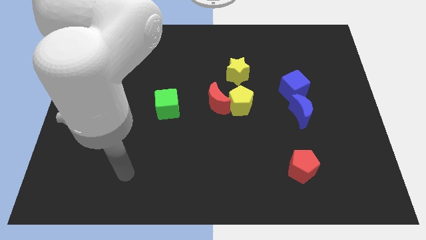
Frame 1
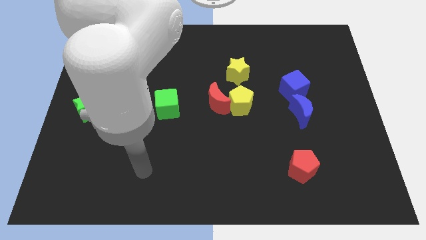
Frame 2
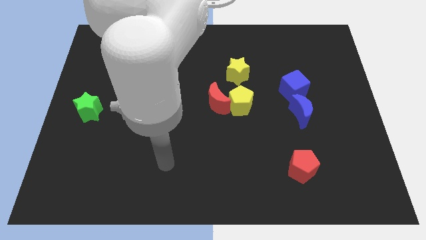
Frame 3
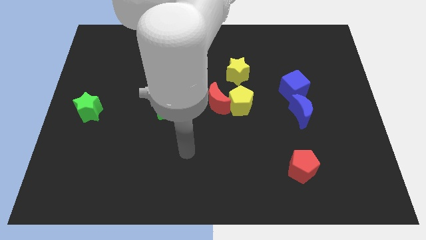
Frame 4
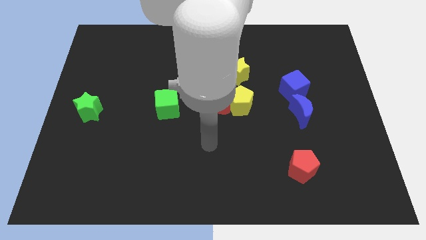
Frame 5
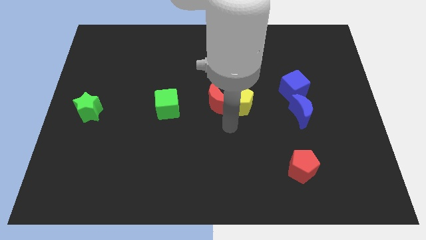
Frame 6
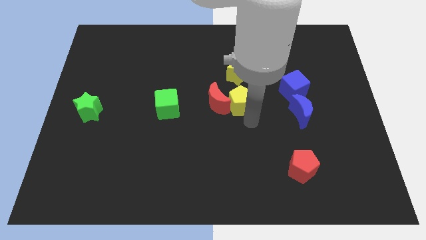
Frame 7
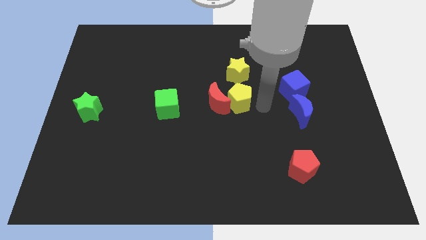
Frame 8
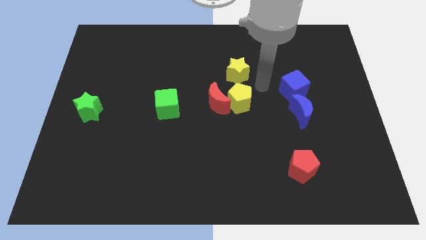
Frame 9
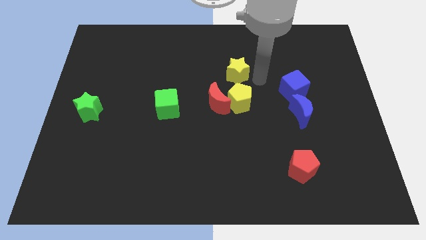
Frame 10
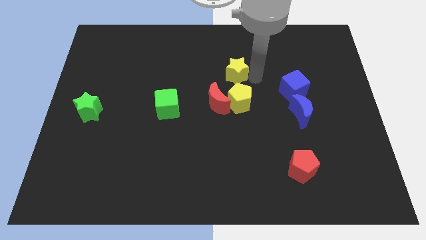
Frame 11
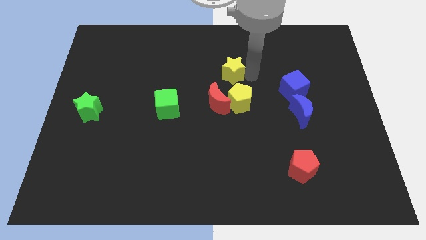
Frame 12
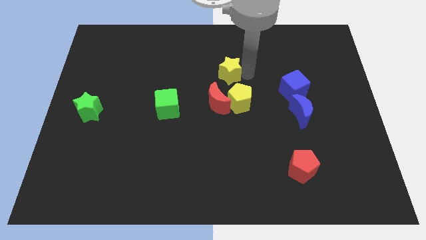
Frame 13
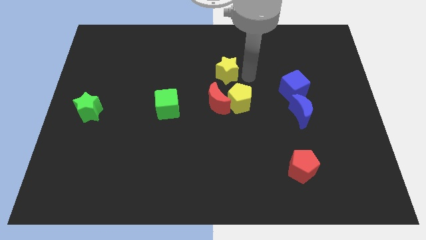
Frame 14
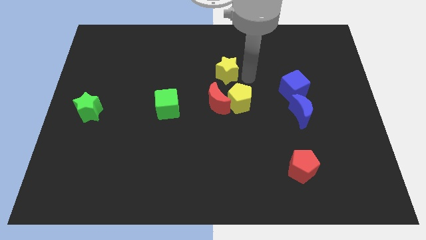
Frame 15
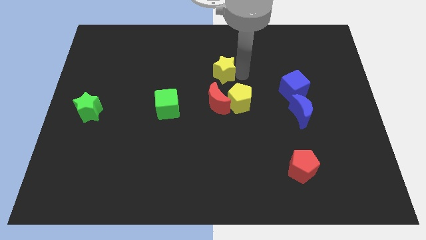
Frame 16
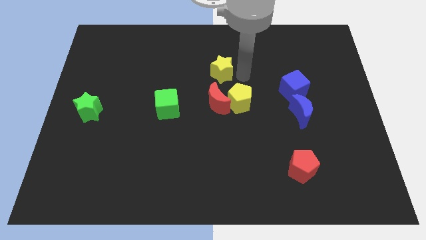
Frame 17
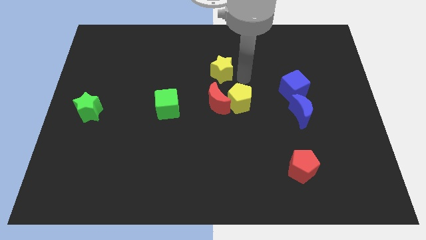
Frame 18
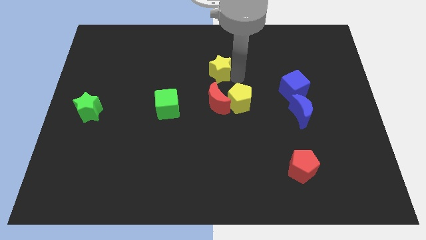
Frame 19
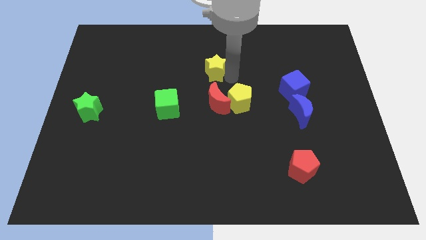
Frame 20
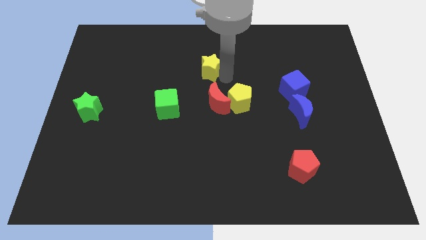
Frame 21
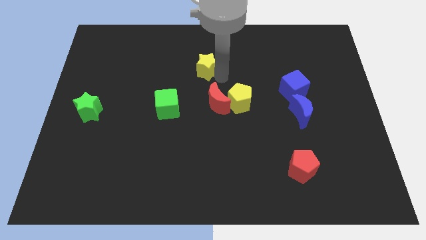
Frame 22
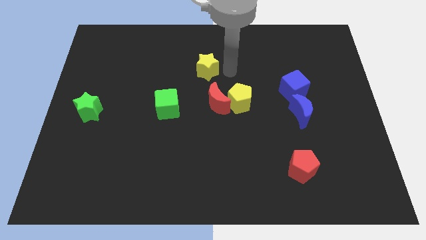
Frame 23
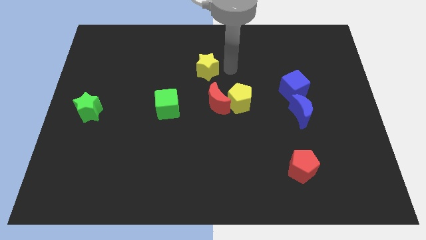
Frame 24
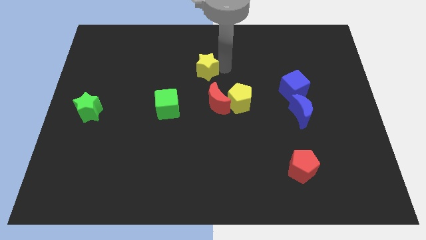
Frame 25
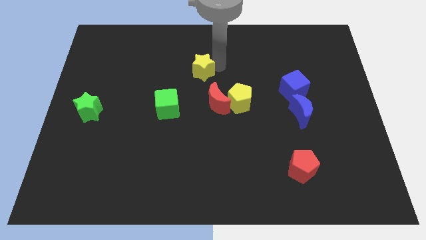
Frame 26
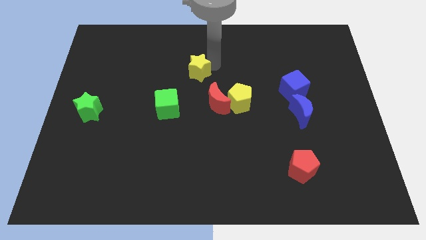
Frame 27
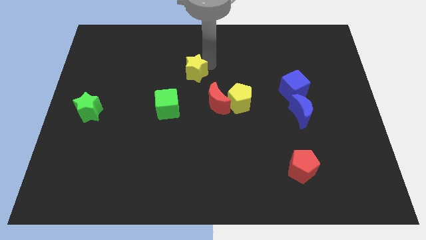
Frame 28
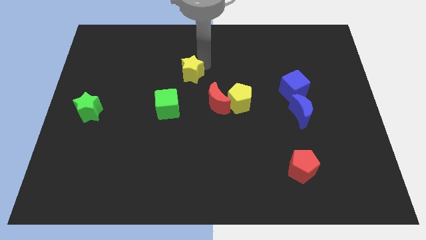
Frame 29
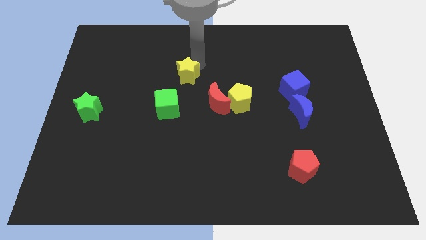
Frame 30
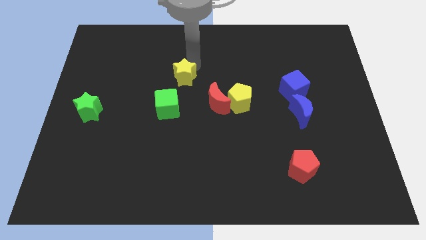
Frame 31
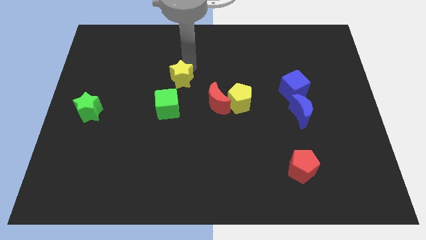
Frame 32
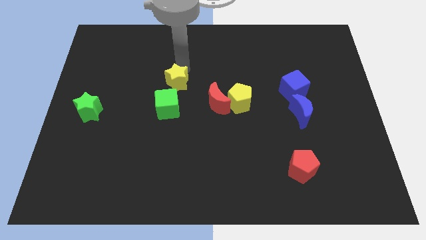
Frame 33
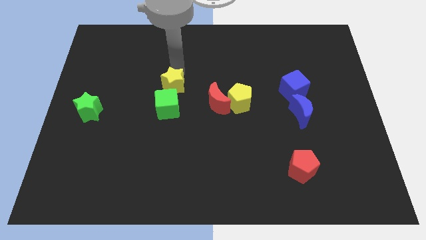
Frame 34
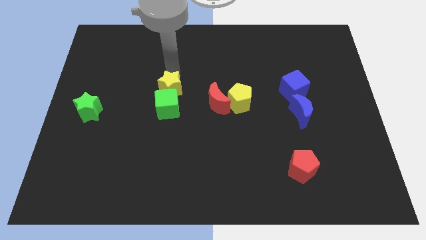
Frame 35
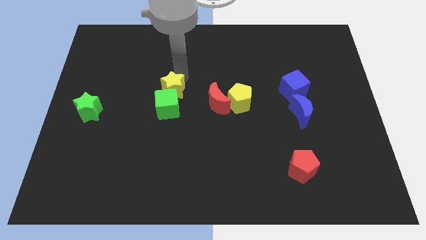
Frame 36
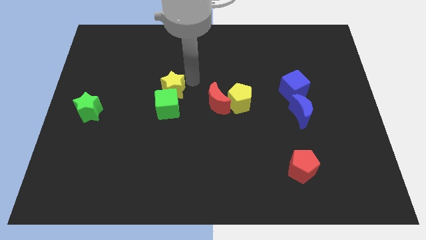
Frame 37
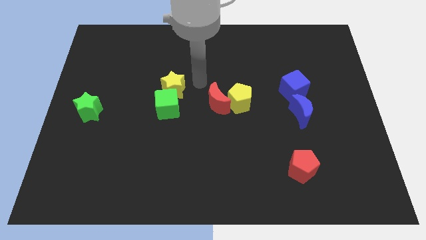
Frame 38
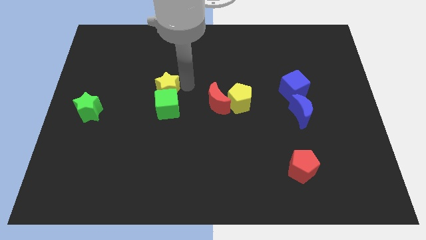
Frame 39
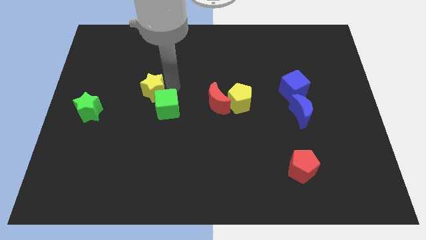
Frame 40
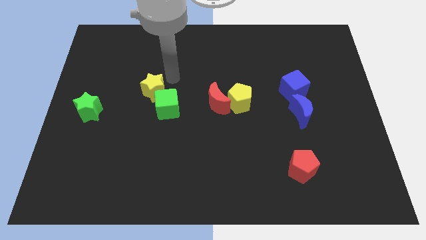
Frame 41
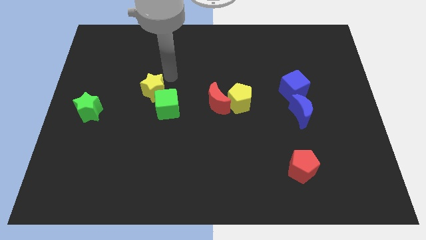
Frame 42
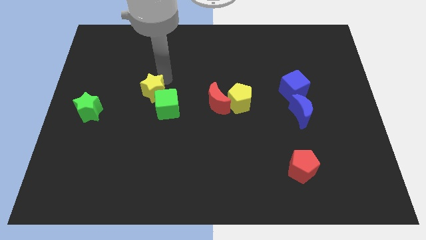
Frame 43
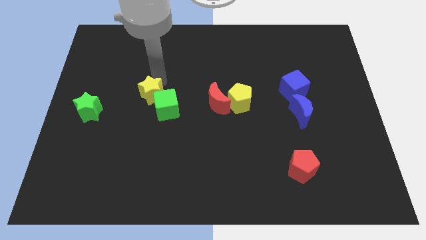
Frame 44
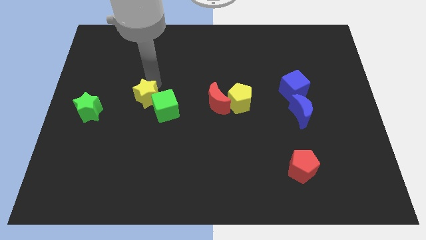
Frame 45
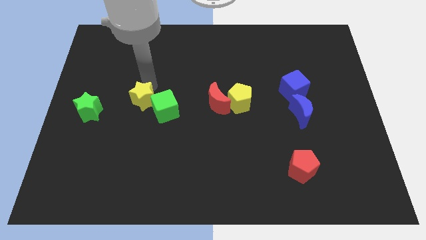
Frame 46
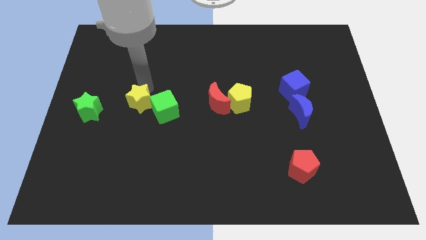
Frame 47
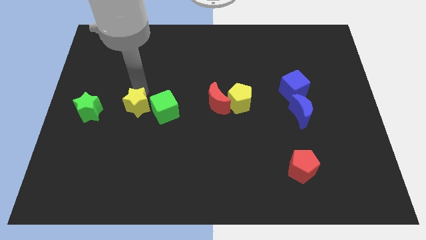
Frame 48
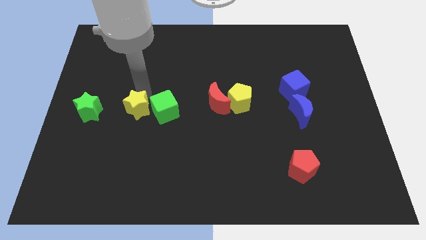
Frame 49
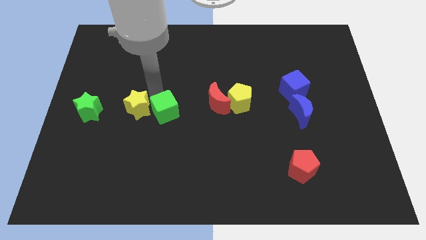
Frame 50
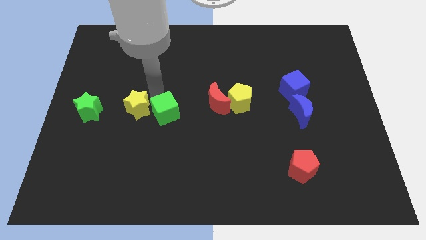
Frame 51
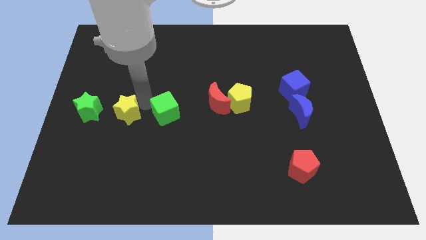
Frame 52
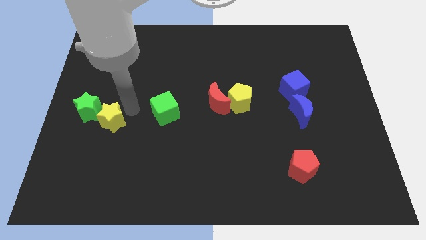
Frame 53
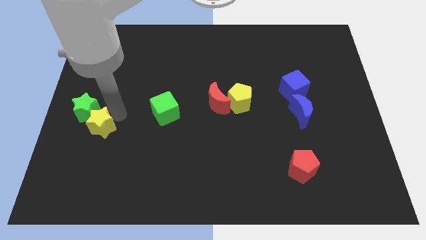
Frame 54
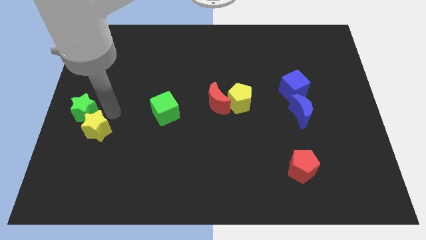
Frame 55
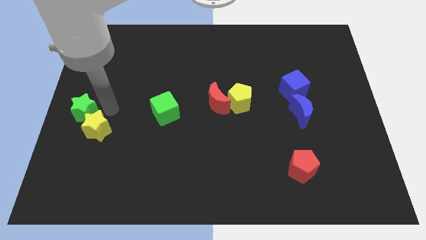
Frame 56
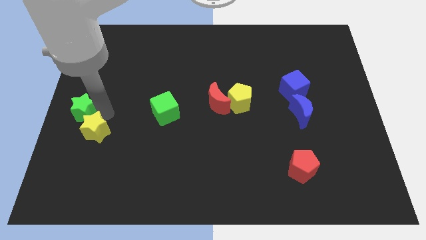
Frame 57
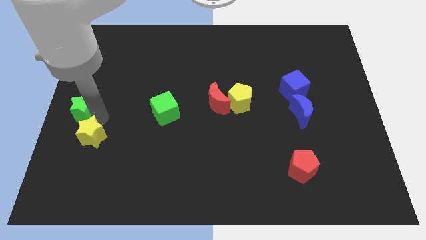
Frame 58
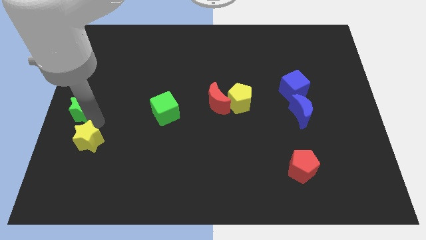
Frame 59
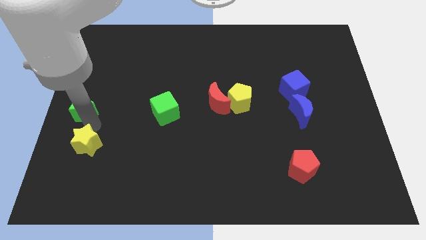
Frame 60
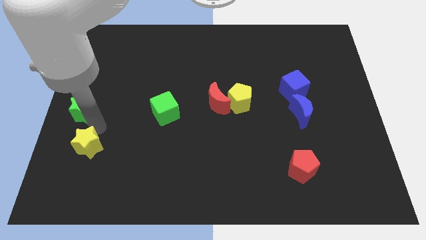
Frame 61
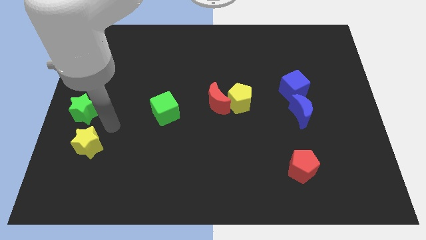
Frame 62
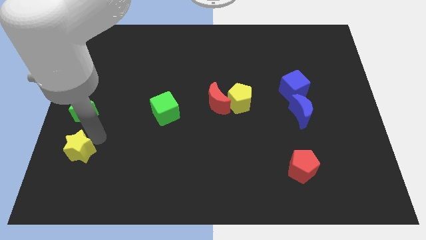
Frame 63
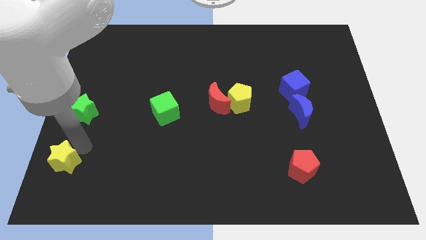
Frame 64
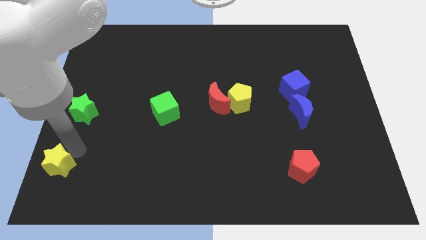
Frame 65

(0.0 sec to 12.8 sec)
move the yellow star to the bottom left of the board
